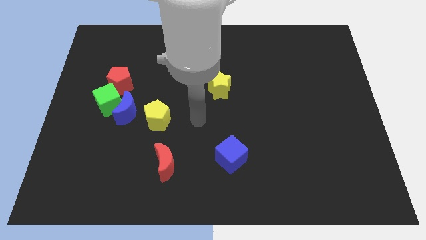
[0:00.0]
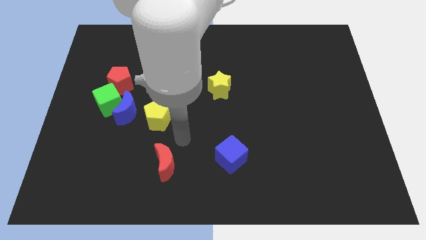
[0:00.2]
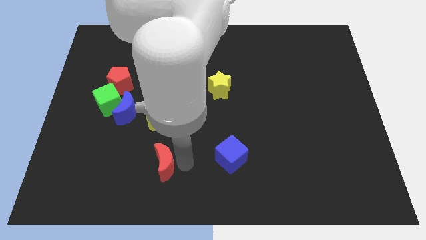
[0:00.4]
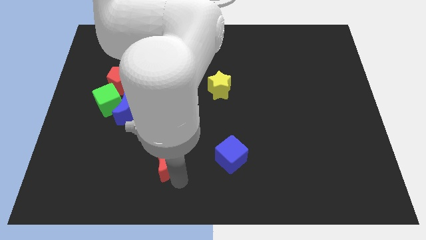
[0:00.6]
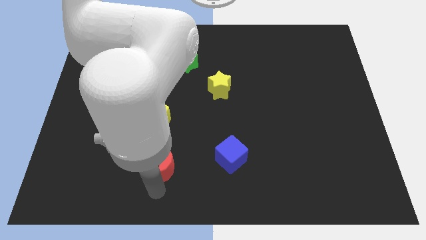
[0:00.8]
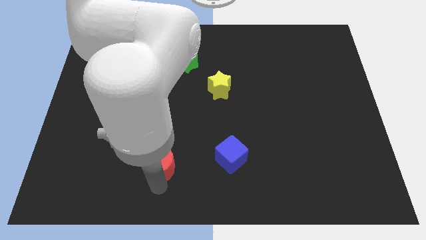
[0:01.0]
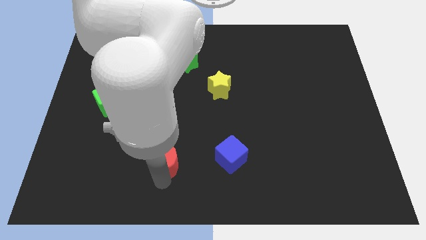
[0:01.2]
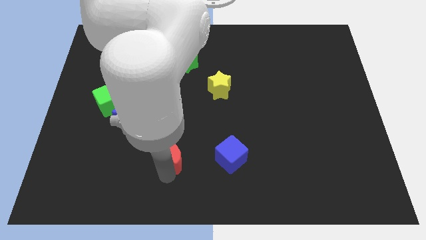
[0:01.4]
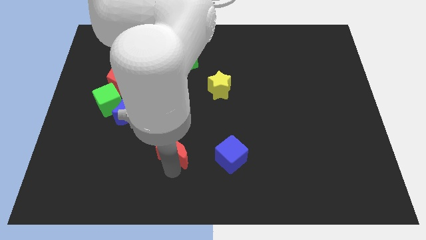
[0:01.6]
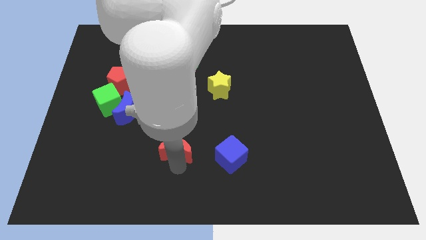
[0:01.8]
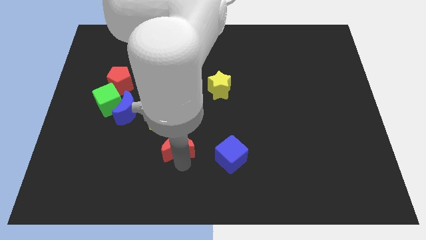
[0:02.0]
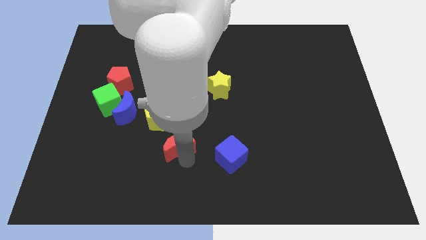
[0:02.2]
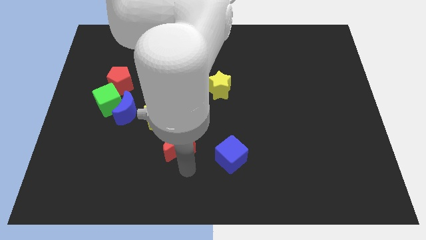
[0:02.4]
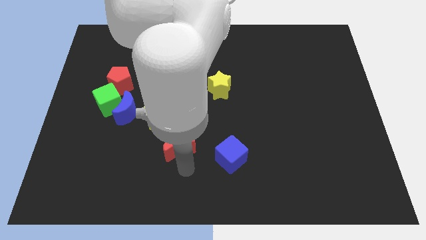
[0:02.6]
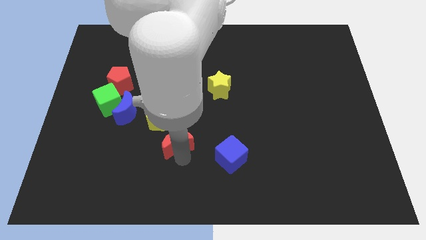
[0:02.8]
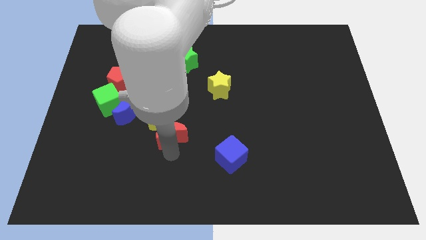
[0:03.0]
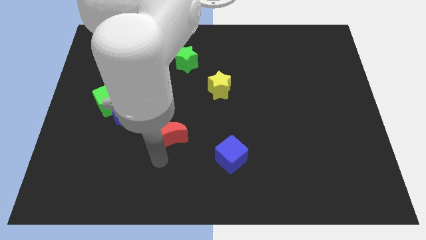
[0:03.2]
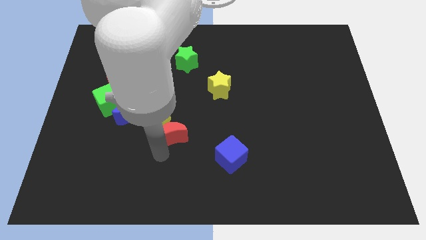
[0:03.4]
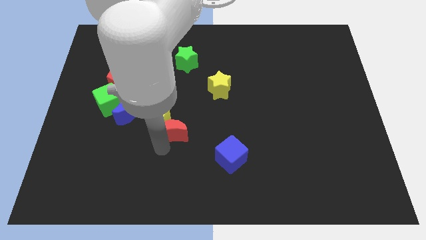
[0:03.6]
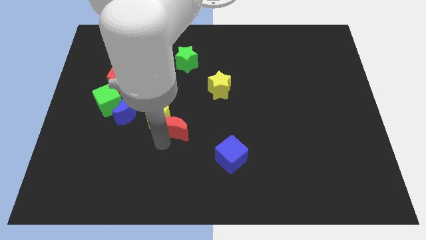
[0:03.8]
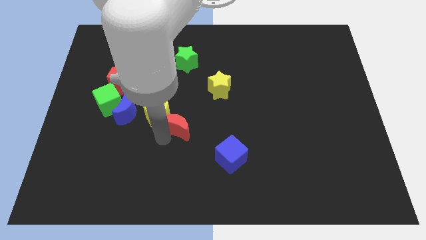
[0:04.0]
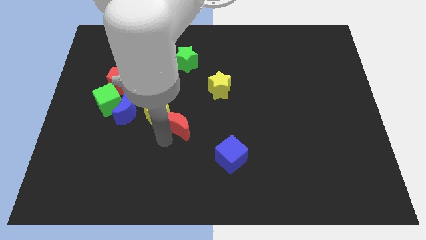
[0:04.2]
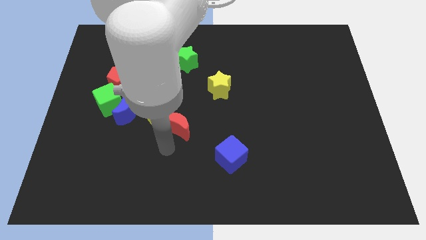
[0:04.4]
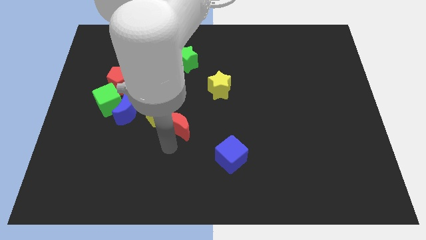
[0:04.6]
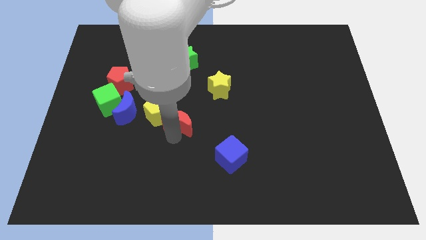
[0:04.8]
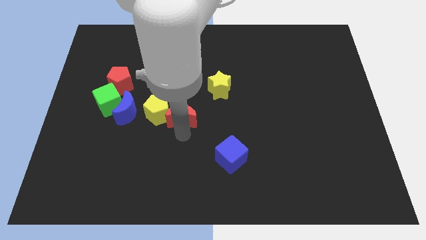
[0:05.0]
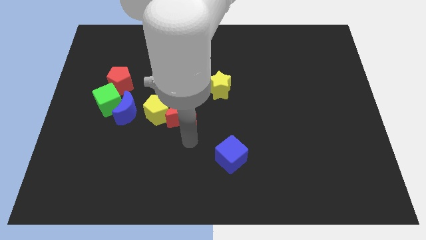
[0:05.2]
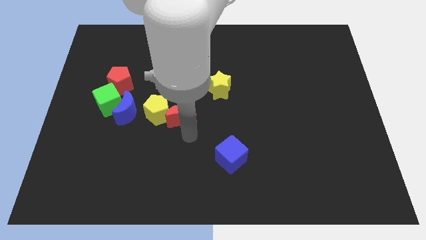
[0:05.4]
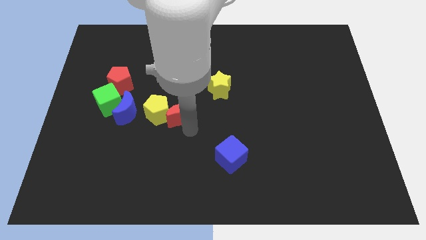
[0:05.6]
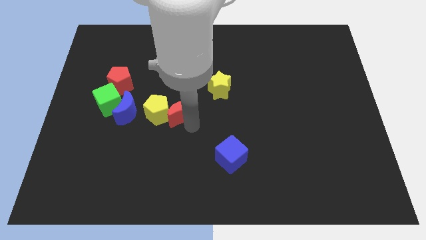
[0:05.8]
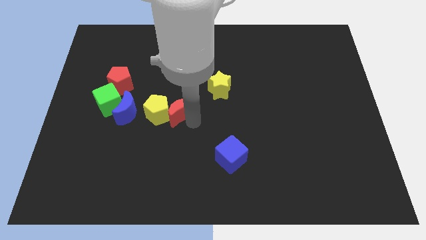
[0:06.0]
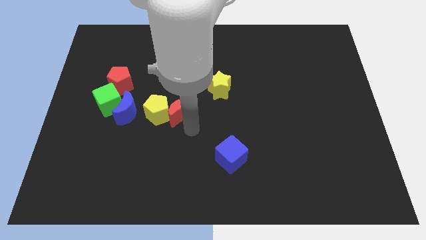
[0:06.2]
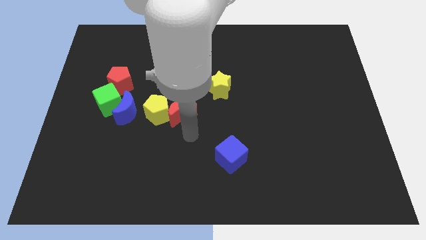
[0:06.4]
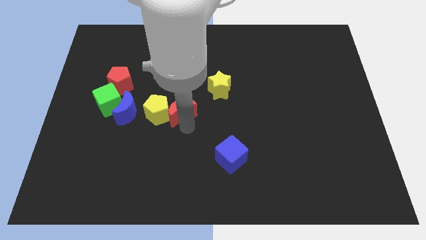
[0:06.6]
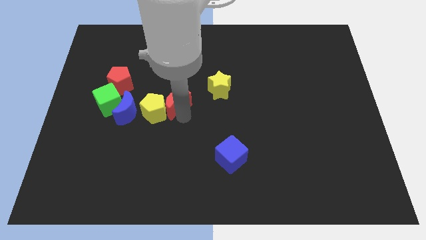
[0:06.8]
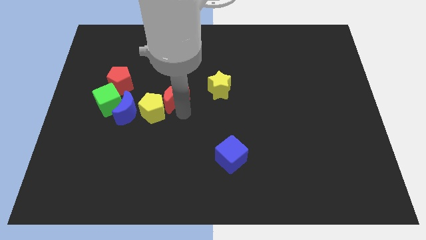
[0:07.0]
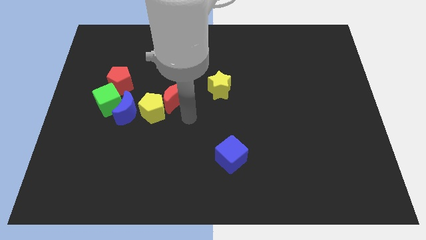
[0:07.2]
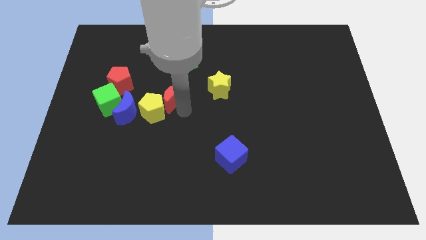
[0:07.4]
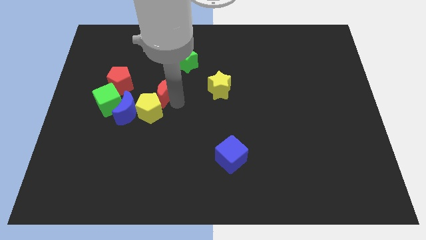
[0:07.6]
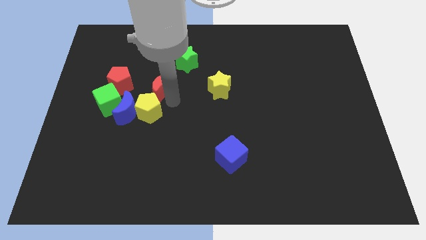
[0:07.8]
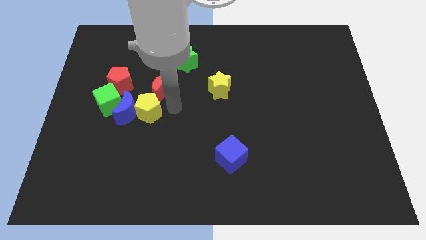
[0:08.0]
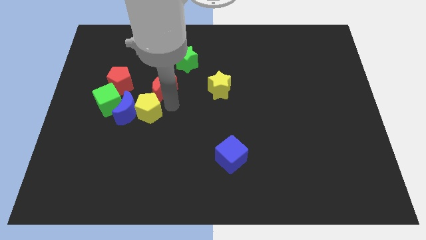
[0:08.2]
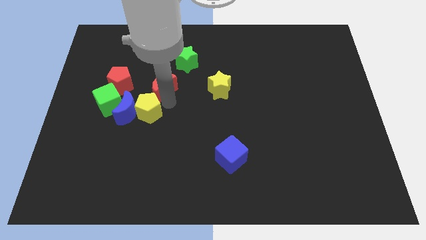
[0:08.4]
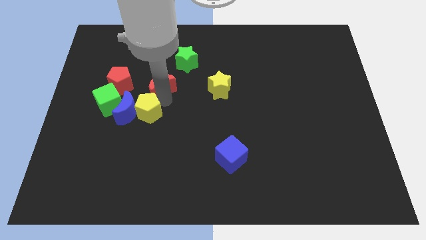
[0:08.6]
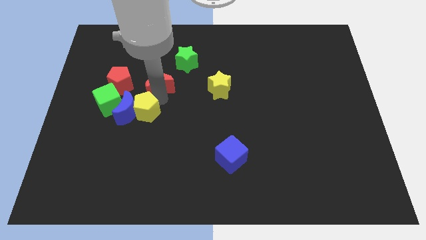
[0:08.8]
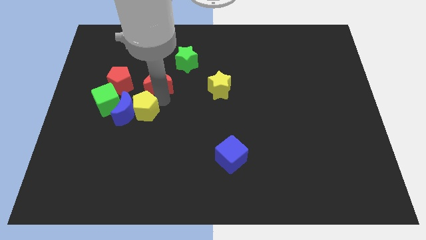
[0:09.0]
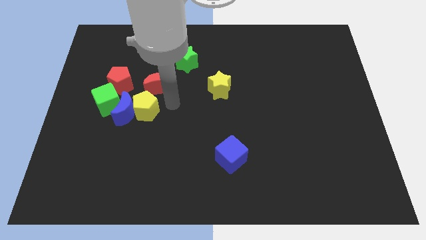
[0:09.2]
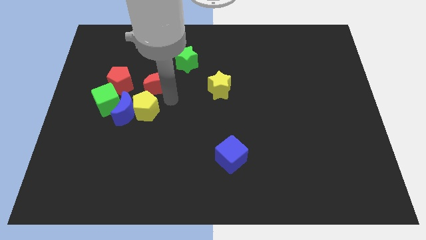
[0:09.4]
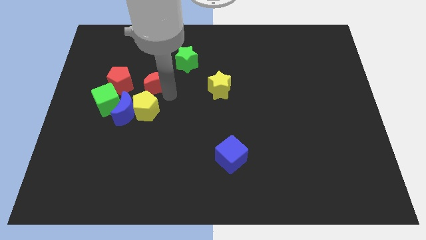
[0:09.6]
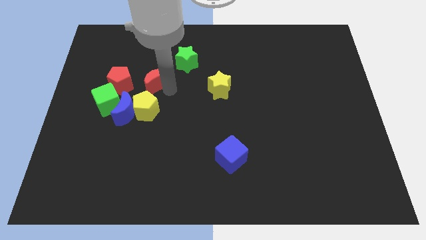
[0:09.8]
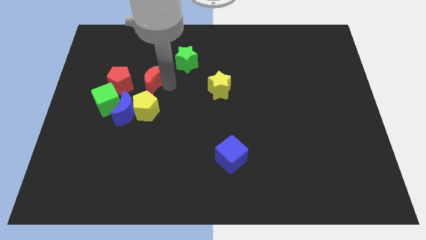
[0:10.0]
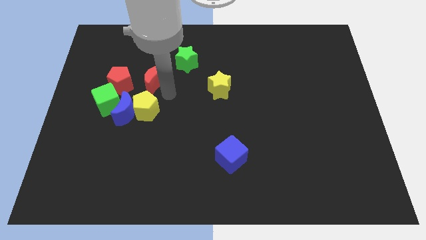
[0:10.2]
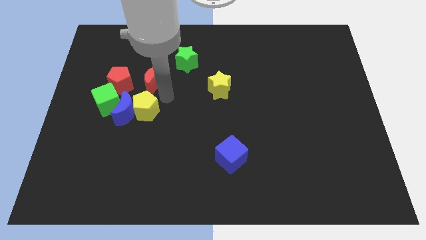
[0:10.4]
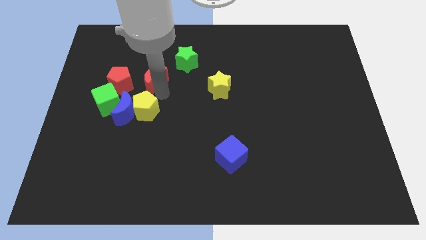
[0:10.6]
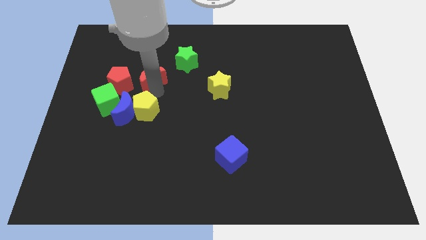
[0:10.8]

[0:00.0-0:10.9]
put the red moon to the top right side of the red pentagon

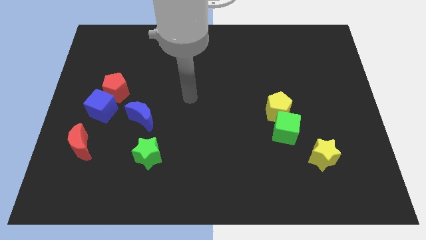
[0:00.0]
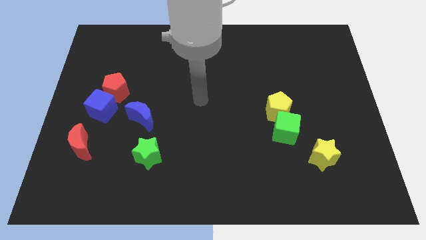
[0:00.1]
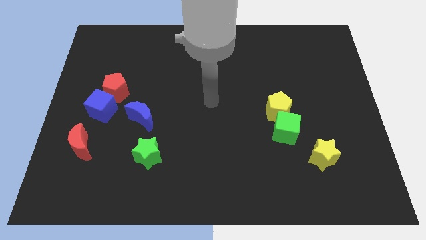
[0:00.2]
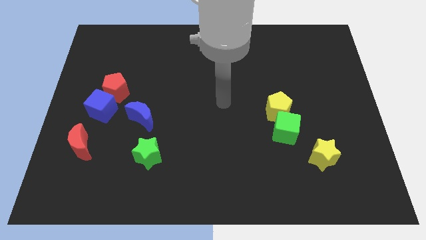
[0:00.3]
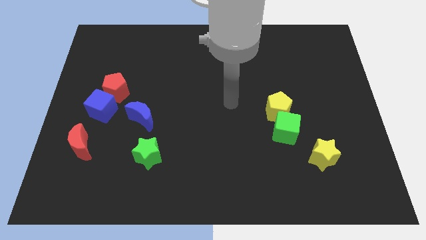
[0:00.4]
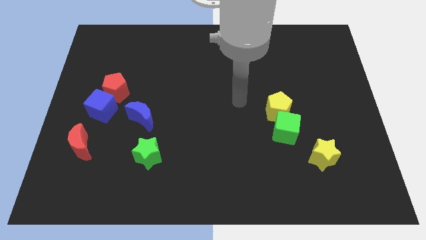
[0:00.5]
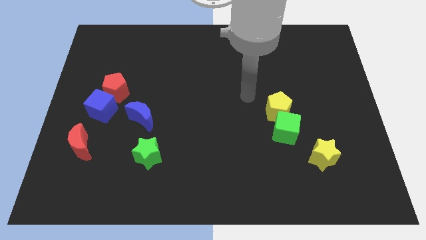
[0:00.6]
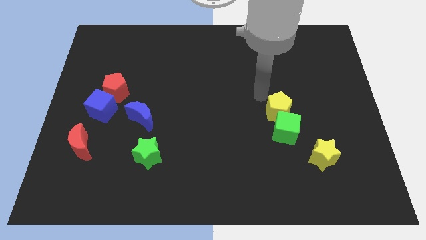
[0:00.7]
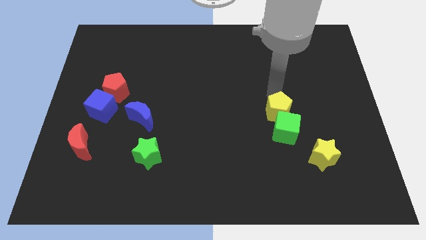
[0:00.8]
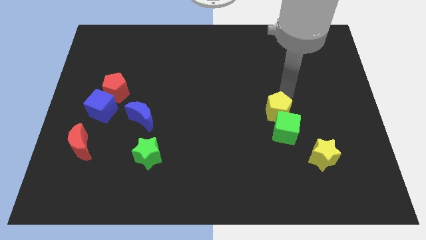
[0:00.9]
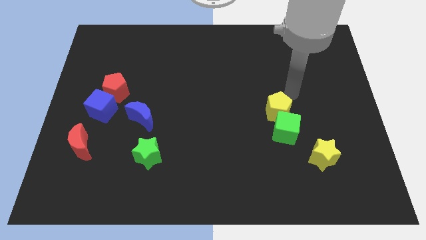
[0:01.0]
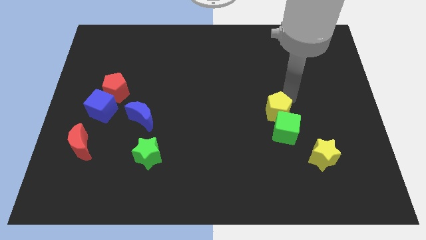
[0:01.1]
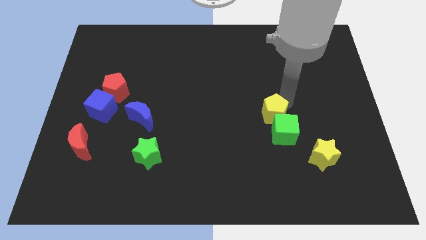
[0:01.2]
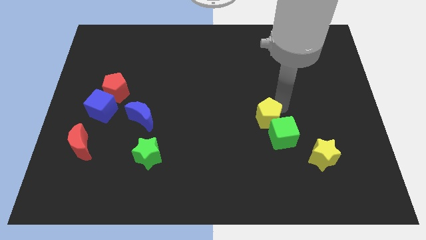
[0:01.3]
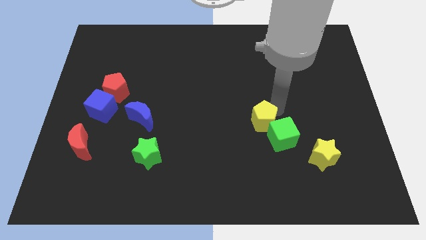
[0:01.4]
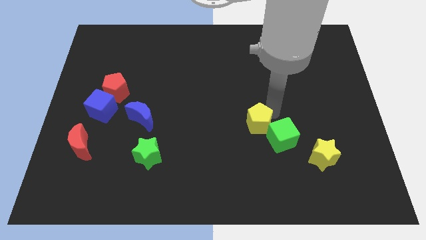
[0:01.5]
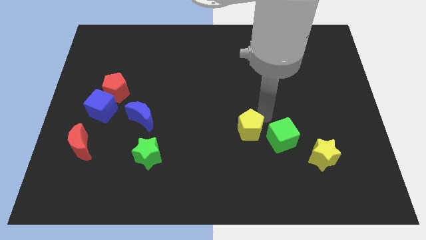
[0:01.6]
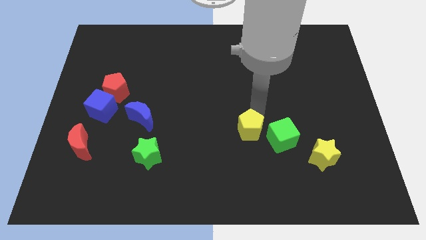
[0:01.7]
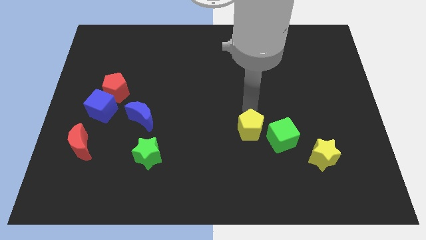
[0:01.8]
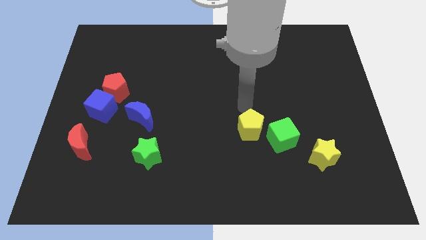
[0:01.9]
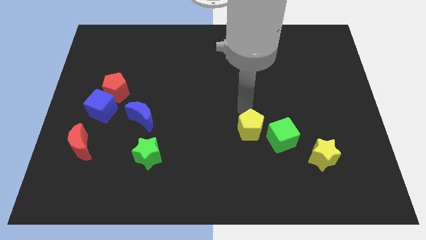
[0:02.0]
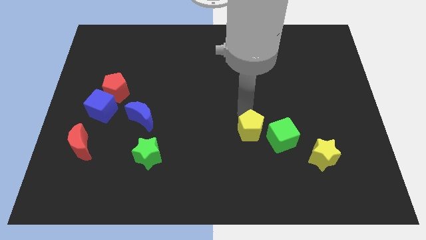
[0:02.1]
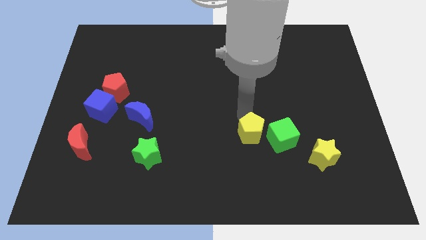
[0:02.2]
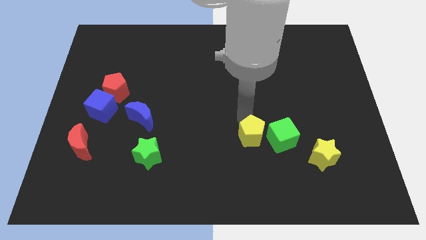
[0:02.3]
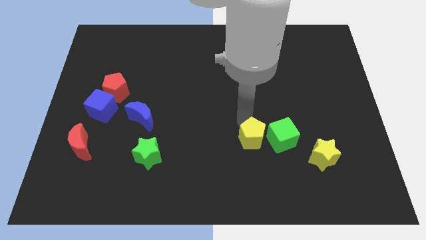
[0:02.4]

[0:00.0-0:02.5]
slide the yellow pentagon to the bottom left of the green cube
